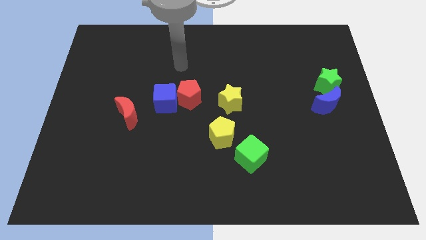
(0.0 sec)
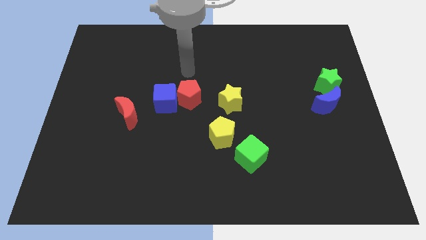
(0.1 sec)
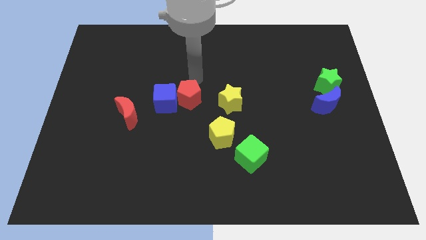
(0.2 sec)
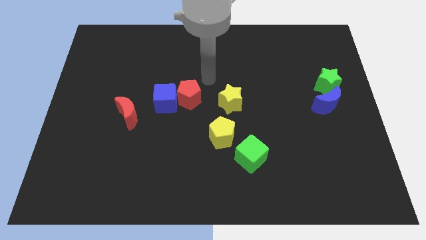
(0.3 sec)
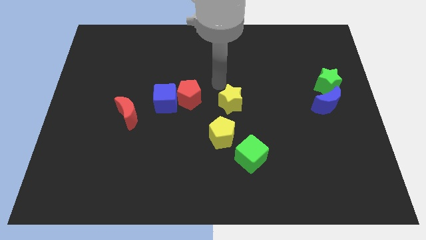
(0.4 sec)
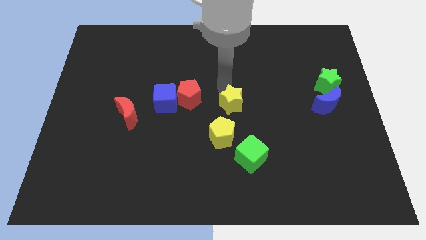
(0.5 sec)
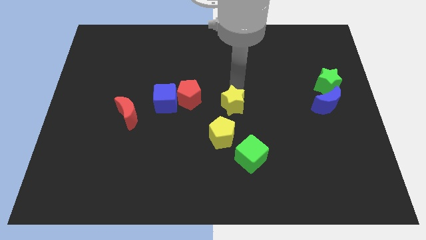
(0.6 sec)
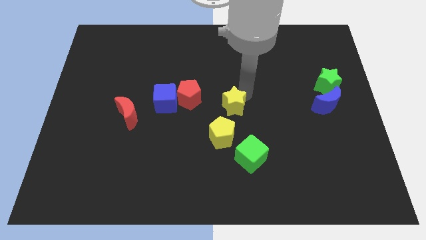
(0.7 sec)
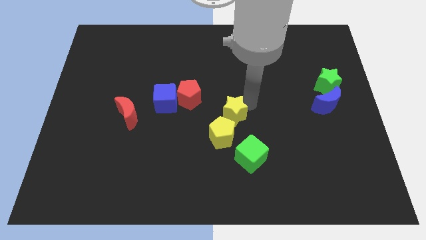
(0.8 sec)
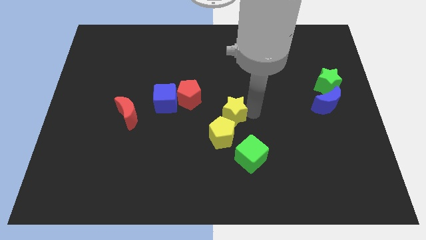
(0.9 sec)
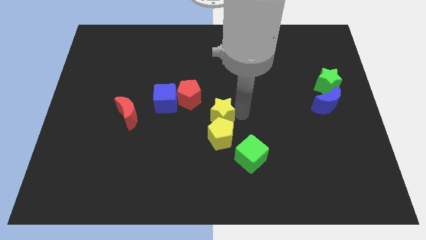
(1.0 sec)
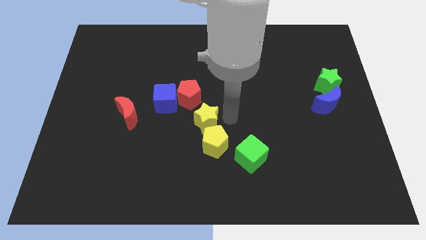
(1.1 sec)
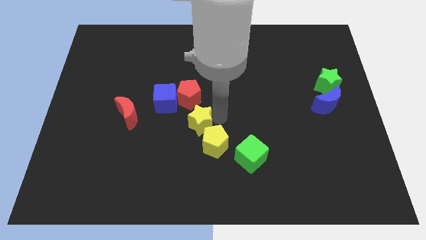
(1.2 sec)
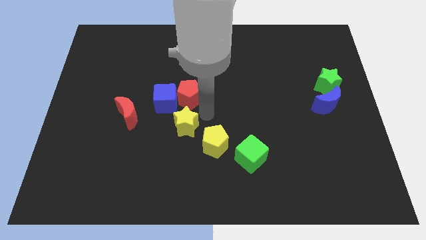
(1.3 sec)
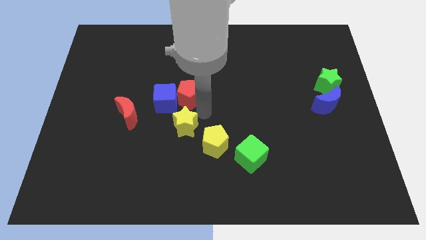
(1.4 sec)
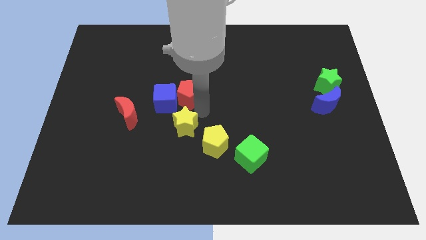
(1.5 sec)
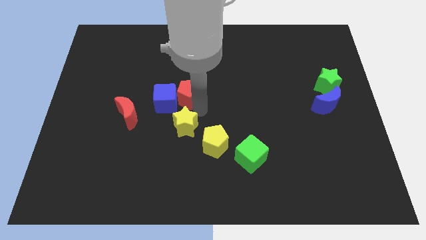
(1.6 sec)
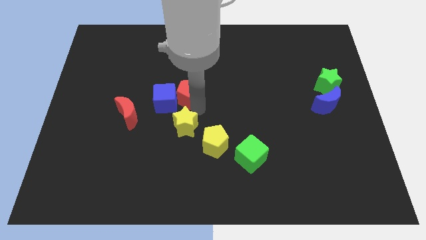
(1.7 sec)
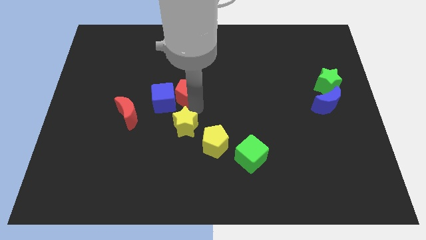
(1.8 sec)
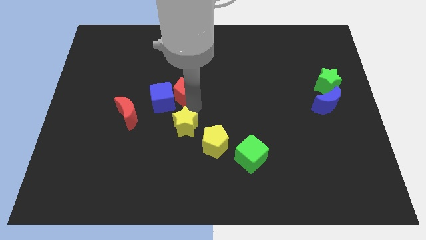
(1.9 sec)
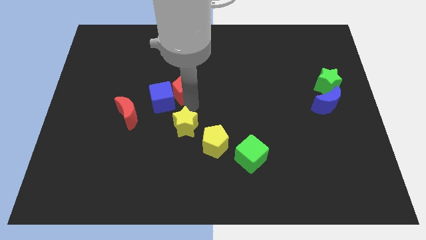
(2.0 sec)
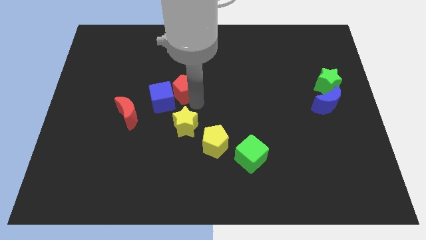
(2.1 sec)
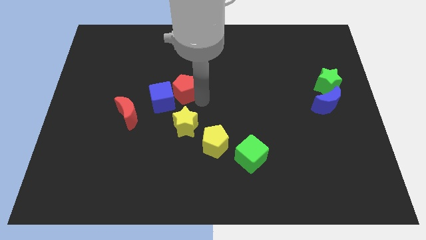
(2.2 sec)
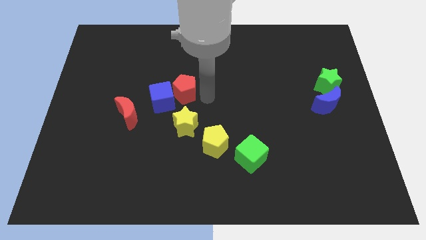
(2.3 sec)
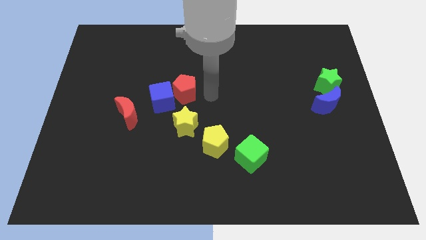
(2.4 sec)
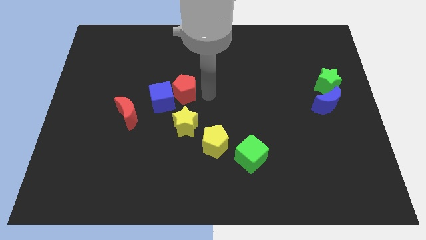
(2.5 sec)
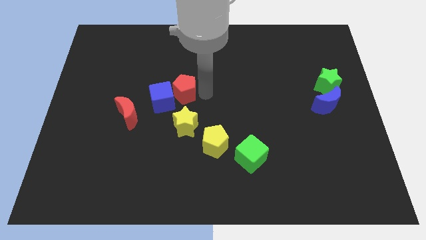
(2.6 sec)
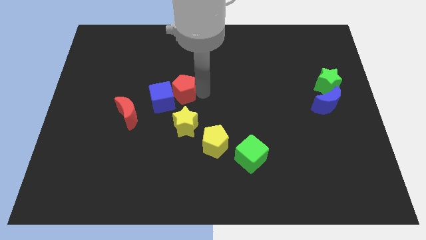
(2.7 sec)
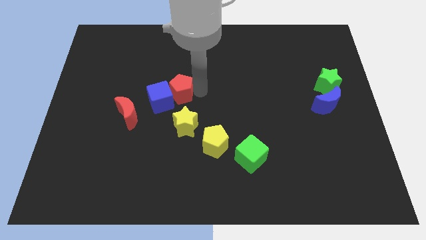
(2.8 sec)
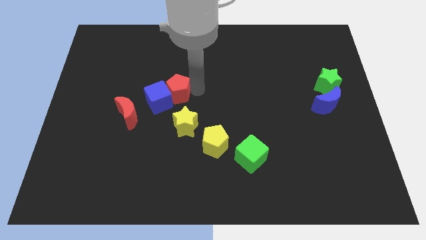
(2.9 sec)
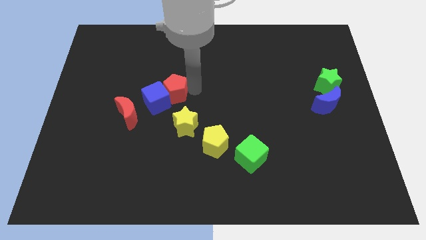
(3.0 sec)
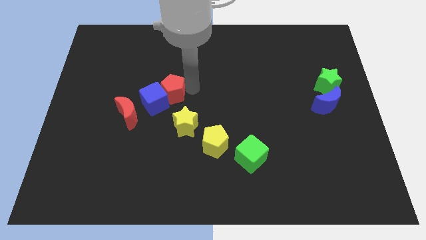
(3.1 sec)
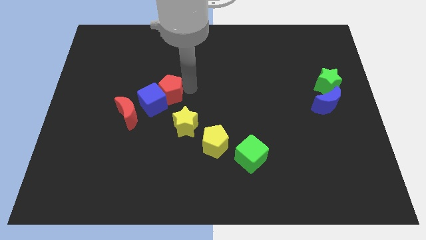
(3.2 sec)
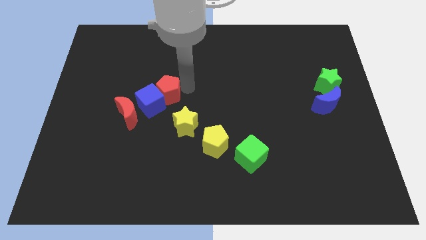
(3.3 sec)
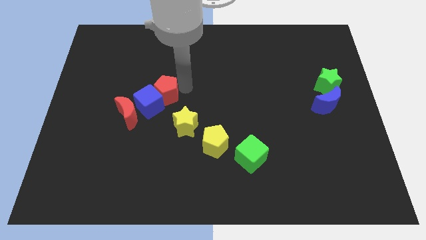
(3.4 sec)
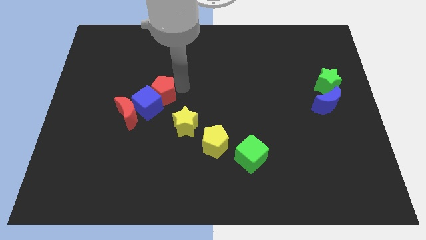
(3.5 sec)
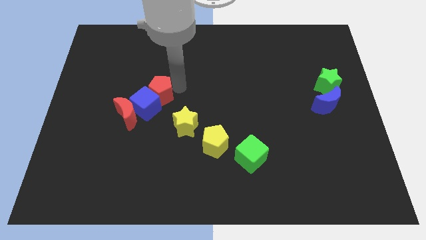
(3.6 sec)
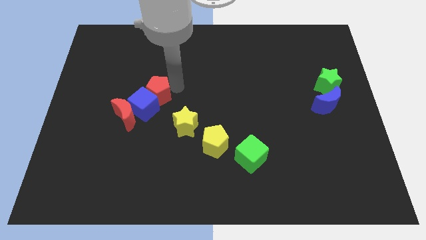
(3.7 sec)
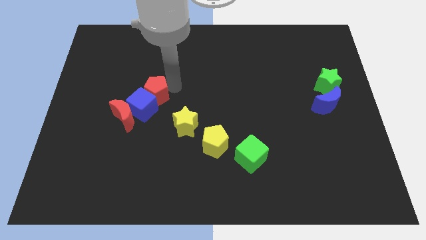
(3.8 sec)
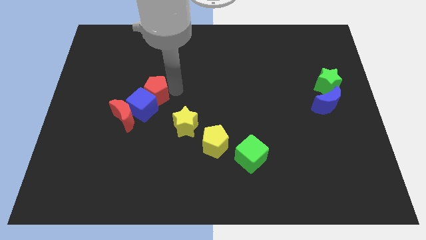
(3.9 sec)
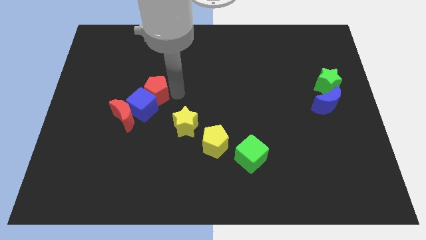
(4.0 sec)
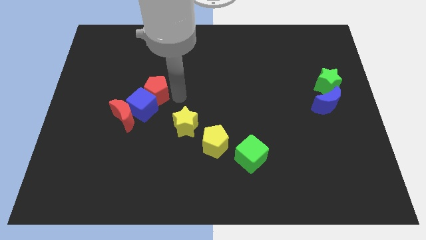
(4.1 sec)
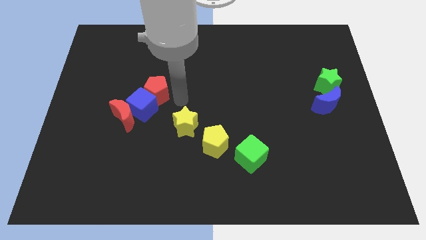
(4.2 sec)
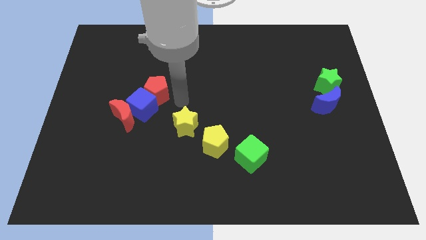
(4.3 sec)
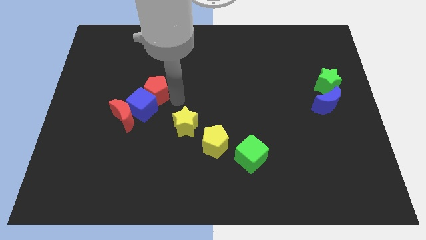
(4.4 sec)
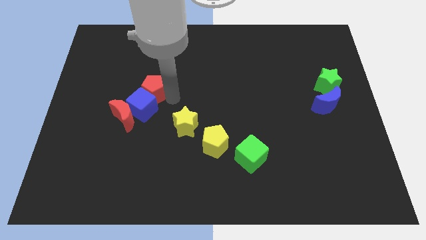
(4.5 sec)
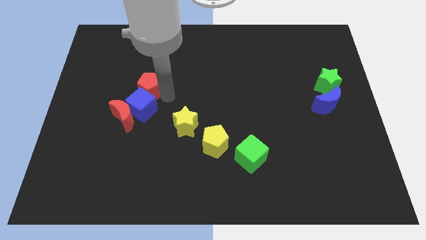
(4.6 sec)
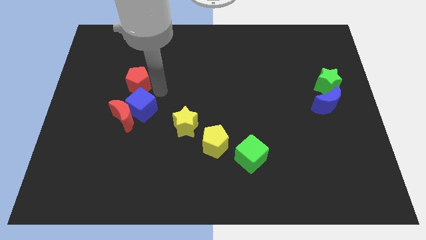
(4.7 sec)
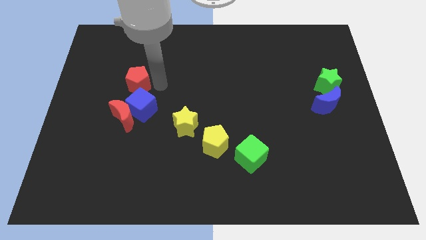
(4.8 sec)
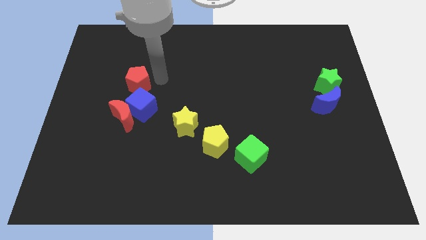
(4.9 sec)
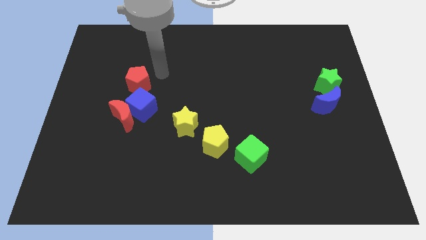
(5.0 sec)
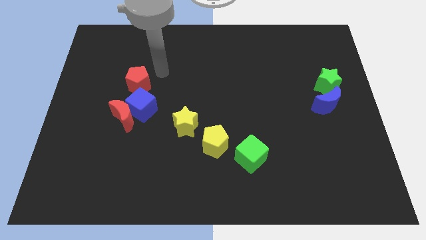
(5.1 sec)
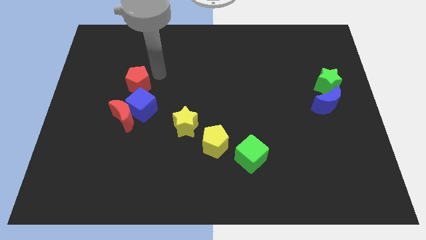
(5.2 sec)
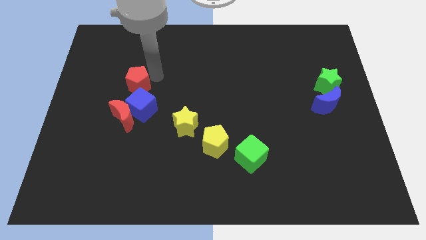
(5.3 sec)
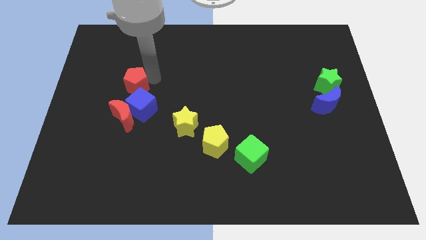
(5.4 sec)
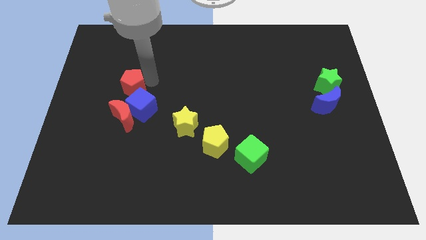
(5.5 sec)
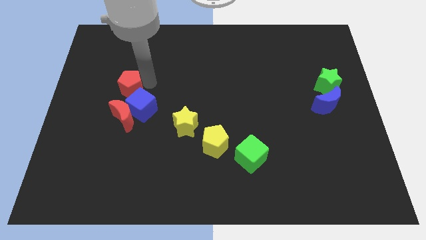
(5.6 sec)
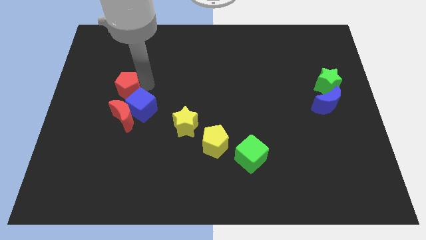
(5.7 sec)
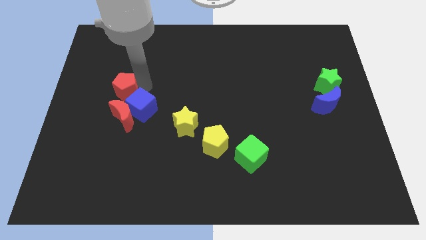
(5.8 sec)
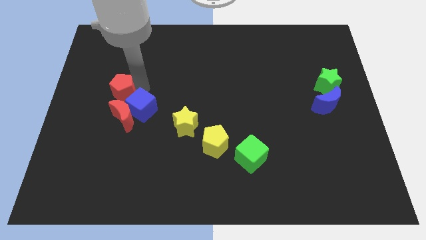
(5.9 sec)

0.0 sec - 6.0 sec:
push the red pentagon to the top left of the red moon

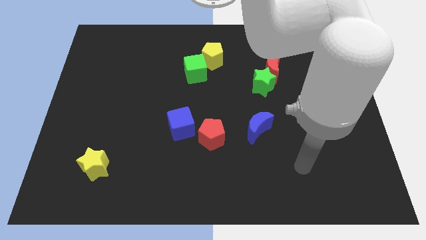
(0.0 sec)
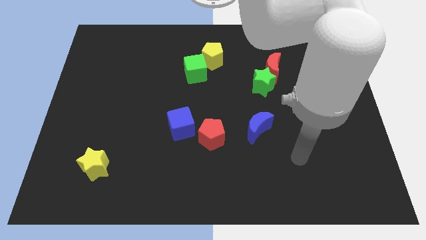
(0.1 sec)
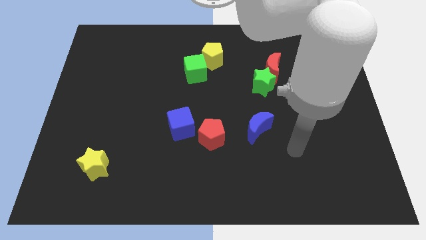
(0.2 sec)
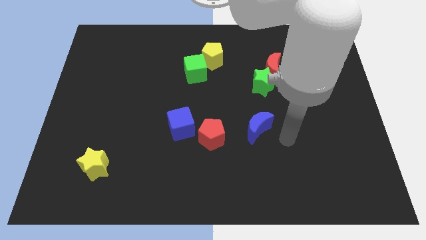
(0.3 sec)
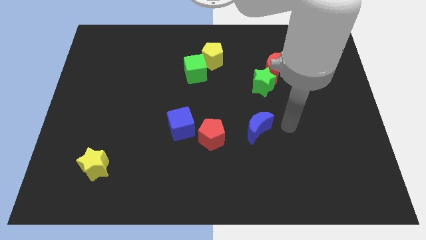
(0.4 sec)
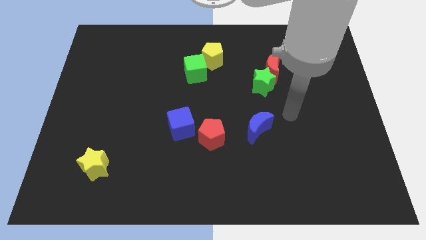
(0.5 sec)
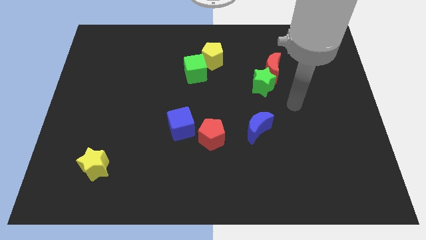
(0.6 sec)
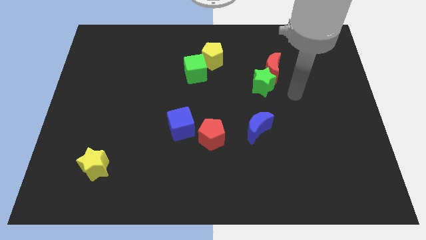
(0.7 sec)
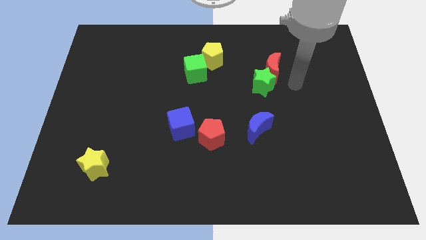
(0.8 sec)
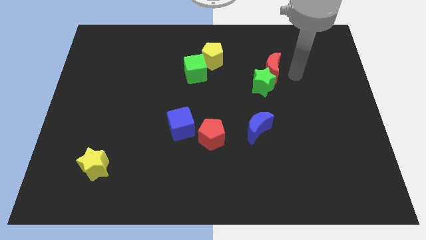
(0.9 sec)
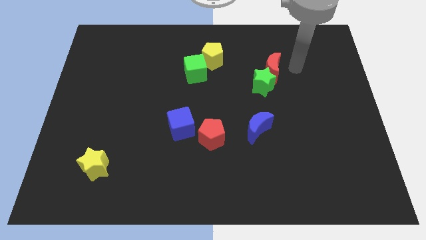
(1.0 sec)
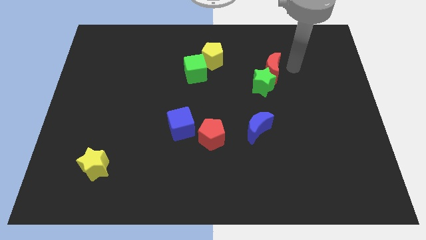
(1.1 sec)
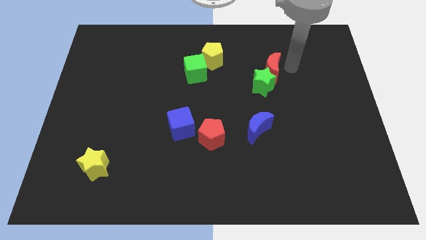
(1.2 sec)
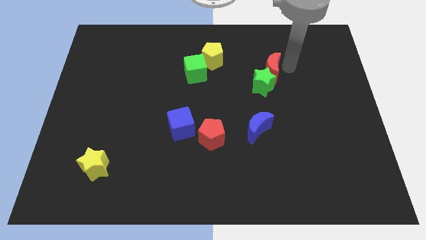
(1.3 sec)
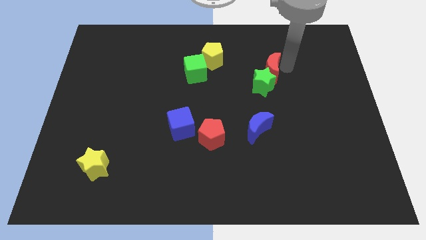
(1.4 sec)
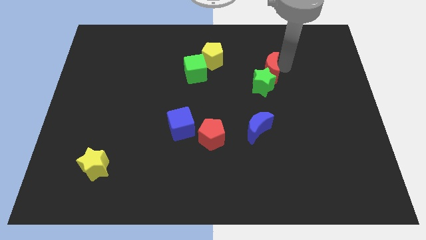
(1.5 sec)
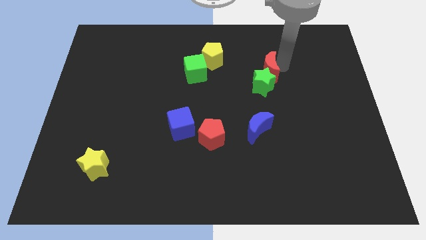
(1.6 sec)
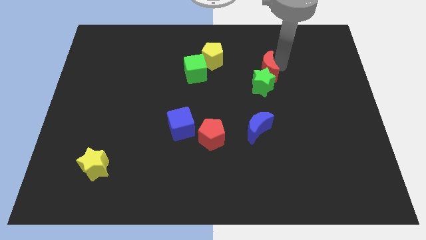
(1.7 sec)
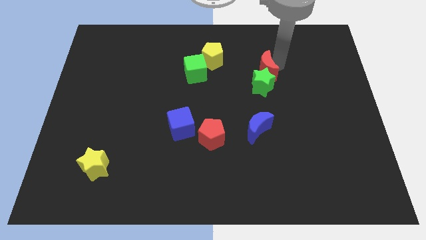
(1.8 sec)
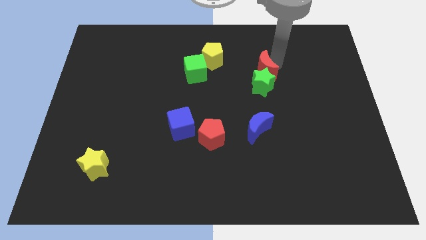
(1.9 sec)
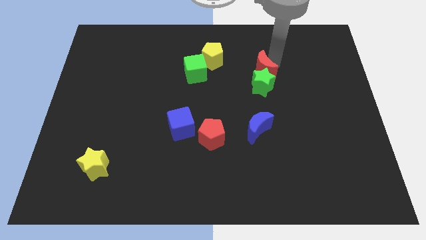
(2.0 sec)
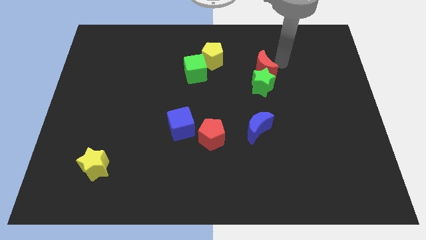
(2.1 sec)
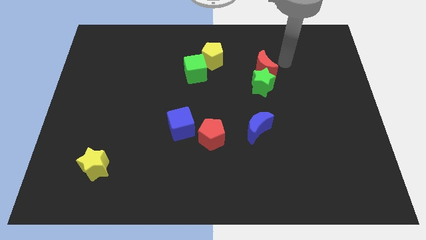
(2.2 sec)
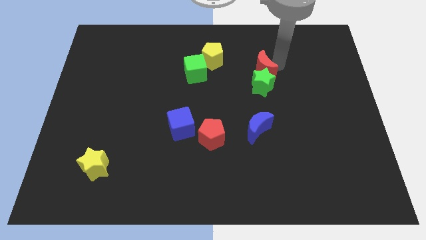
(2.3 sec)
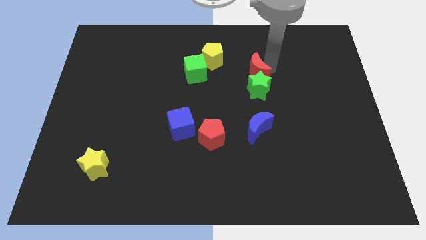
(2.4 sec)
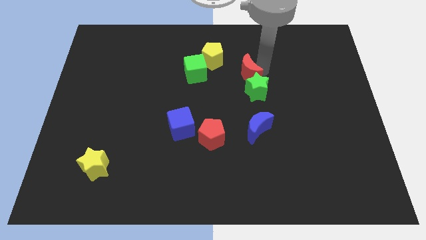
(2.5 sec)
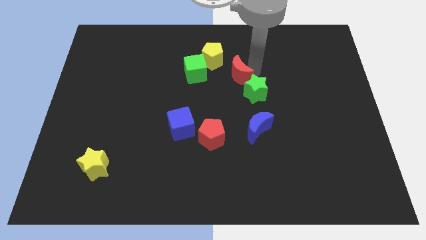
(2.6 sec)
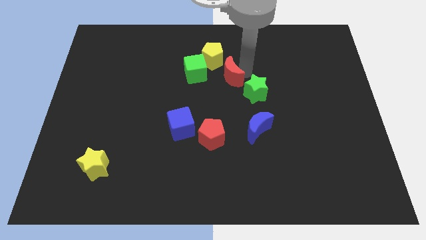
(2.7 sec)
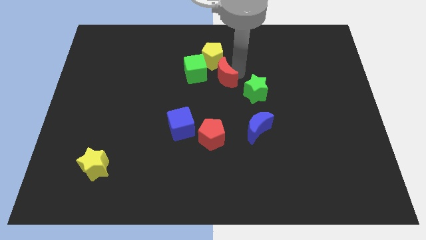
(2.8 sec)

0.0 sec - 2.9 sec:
move the red moon to the left of the green star
